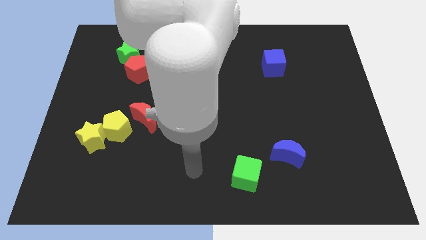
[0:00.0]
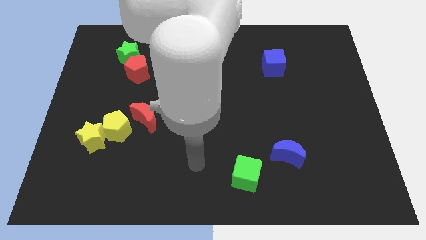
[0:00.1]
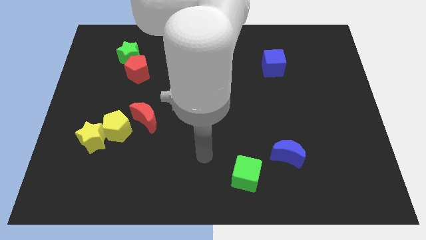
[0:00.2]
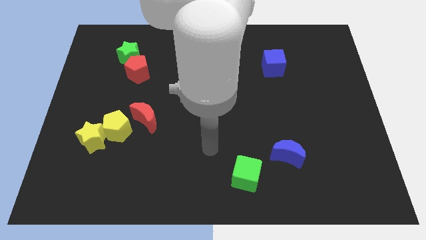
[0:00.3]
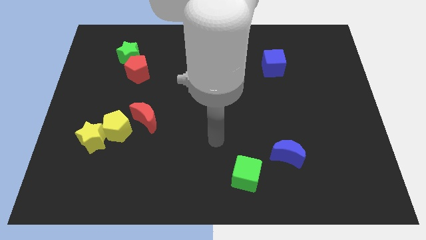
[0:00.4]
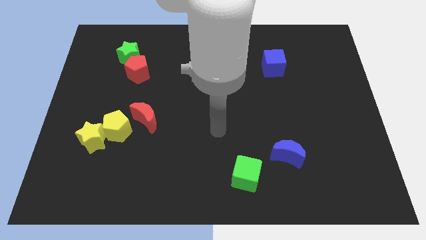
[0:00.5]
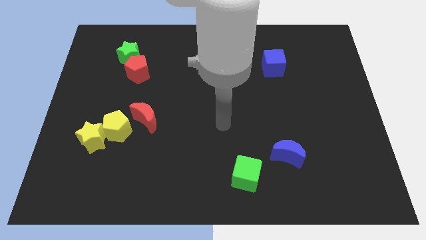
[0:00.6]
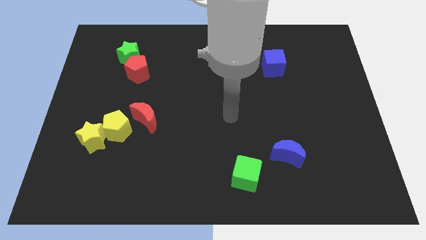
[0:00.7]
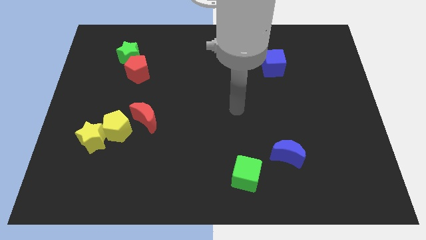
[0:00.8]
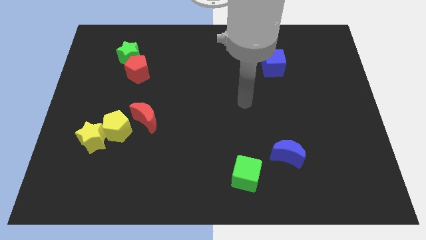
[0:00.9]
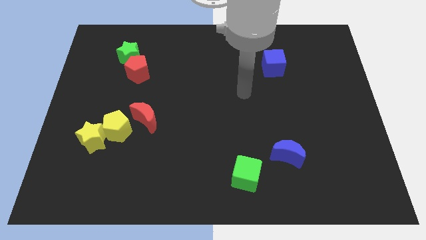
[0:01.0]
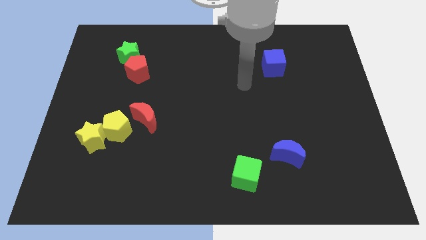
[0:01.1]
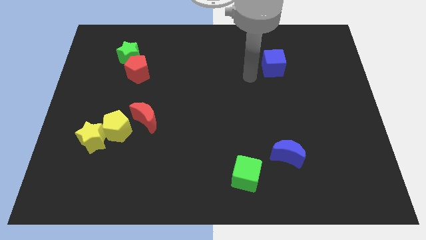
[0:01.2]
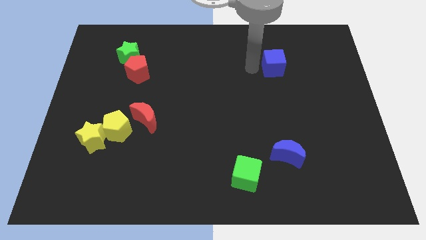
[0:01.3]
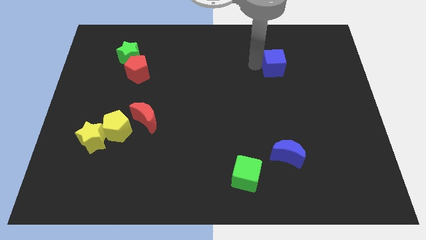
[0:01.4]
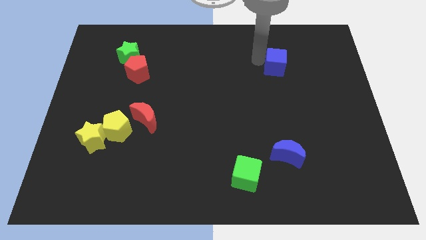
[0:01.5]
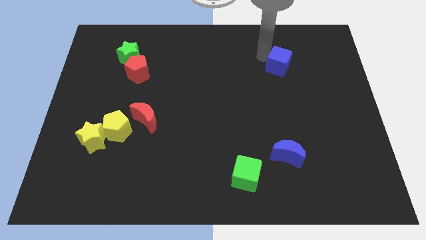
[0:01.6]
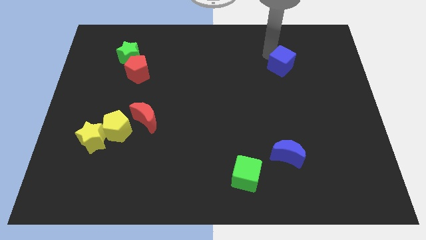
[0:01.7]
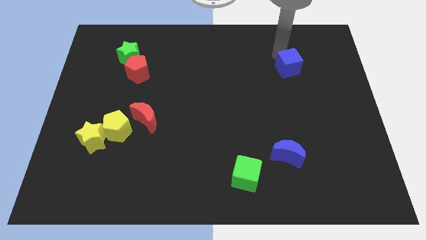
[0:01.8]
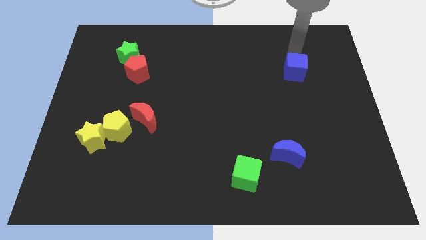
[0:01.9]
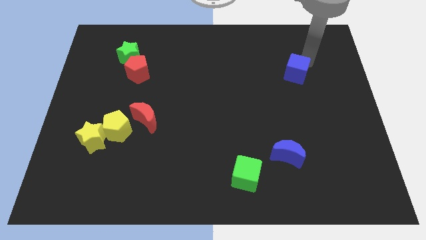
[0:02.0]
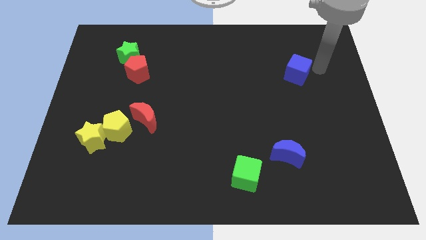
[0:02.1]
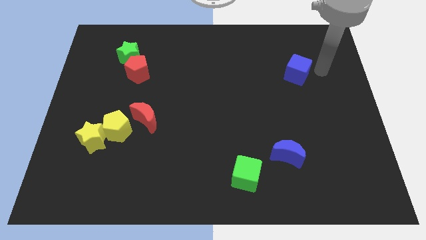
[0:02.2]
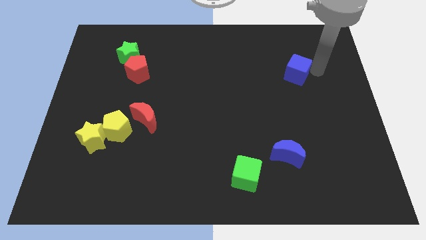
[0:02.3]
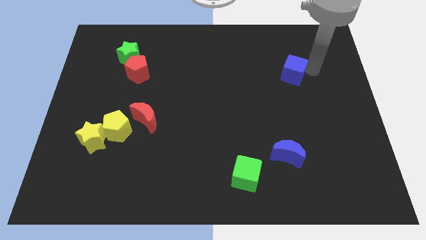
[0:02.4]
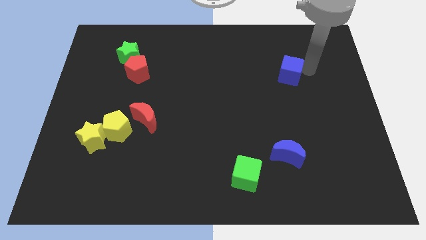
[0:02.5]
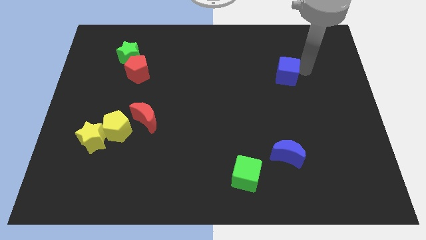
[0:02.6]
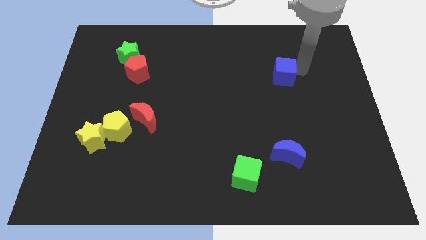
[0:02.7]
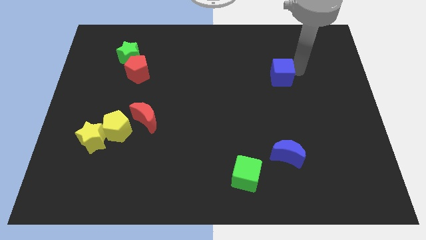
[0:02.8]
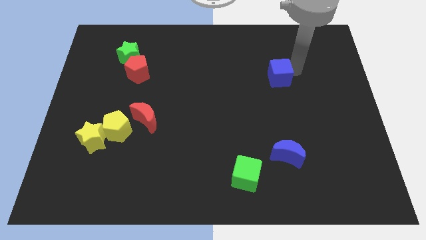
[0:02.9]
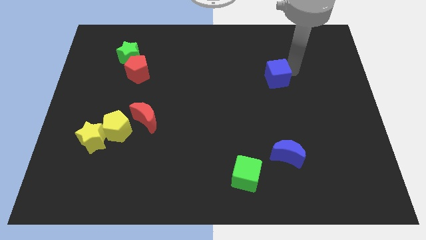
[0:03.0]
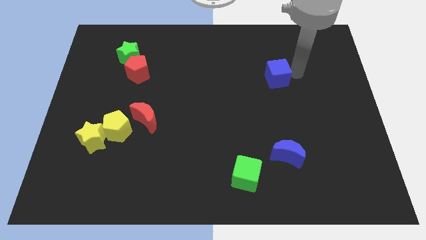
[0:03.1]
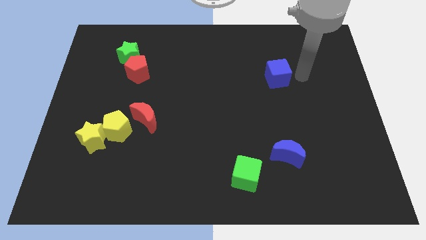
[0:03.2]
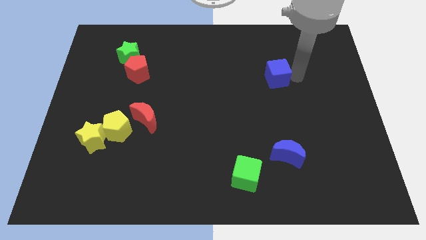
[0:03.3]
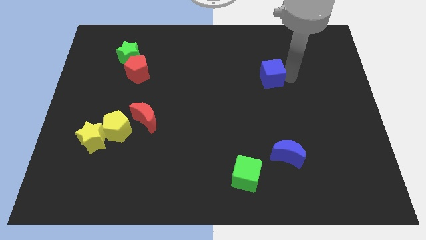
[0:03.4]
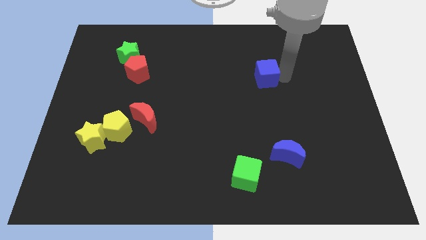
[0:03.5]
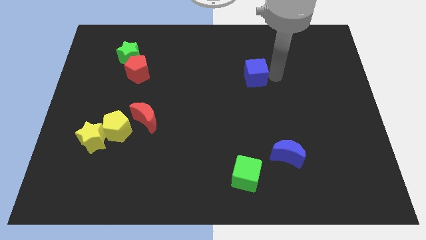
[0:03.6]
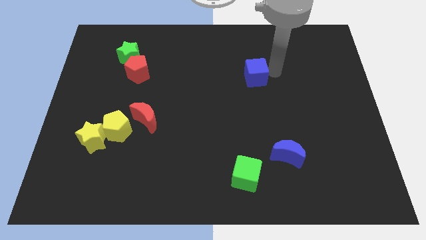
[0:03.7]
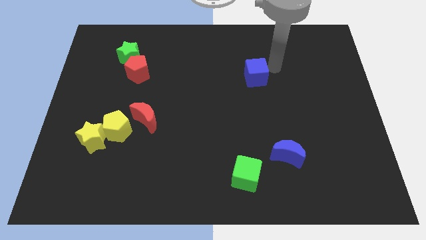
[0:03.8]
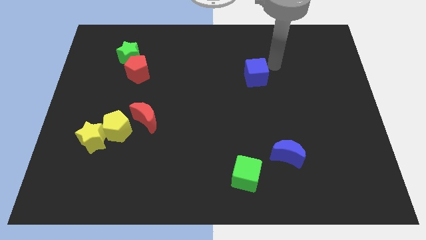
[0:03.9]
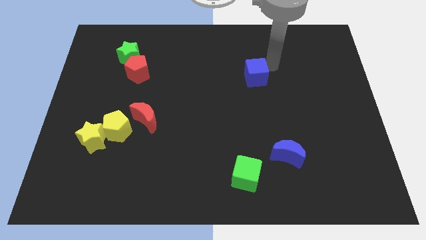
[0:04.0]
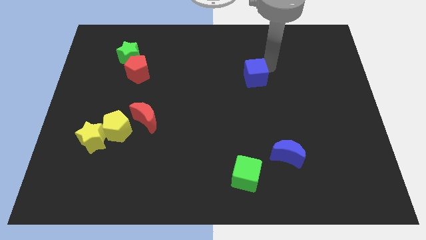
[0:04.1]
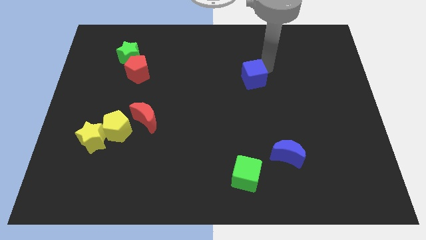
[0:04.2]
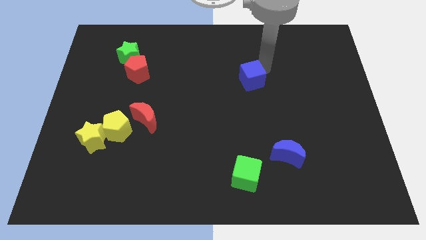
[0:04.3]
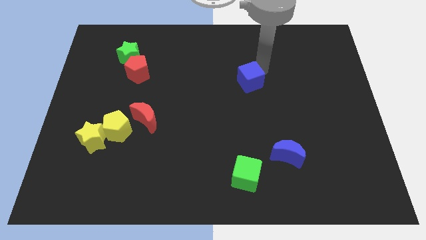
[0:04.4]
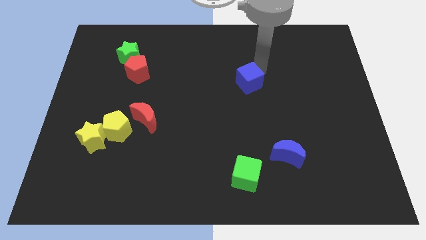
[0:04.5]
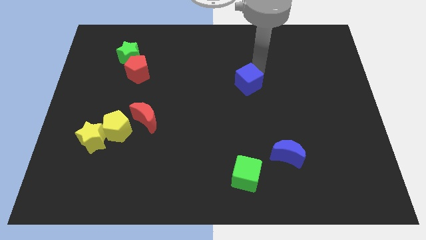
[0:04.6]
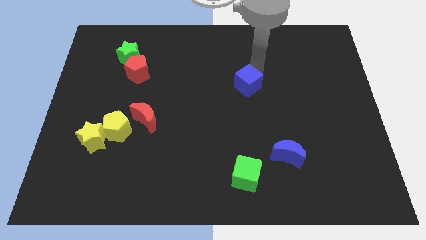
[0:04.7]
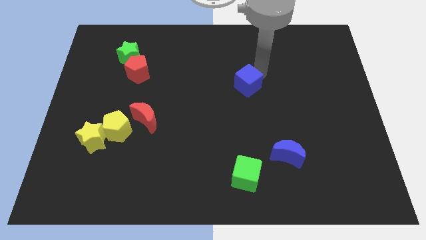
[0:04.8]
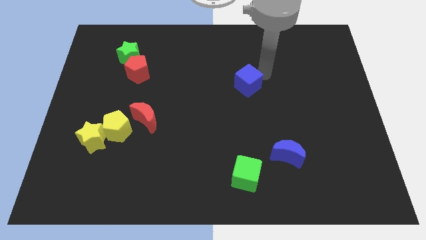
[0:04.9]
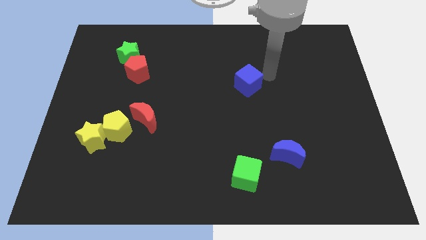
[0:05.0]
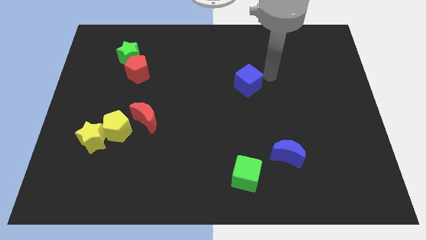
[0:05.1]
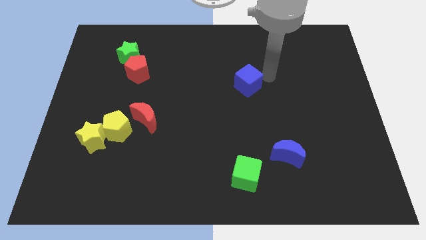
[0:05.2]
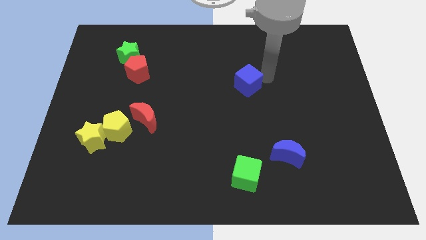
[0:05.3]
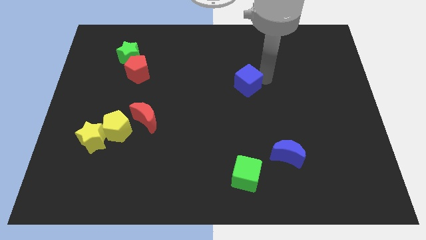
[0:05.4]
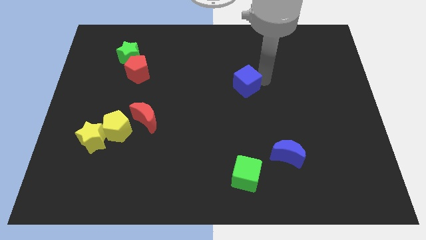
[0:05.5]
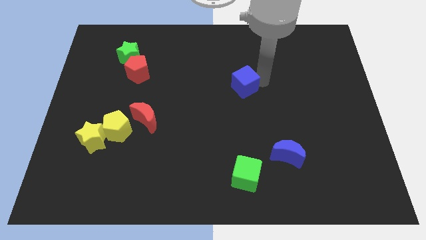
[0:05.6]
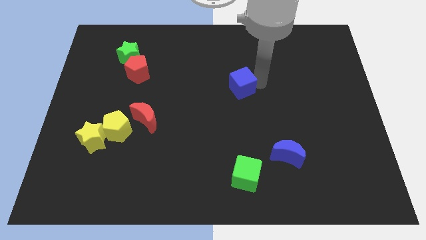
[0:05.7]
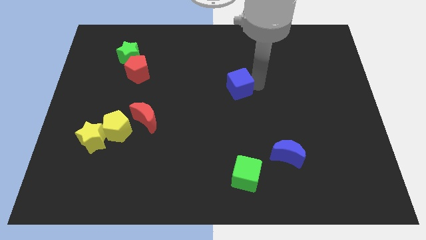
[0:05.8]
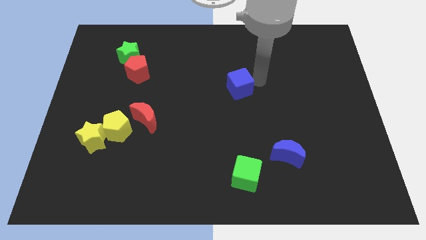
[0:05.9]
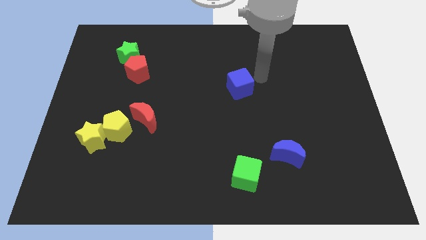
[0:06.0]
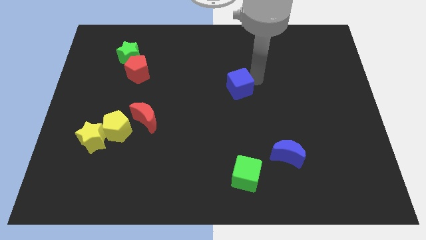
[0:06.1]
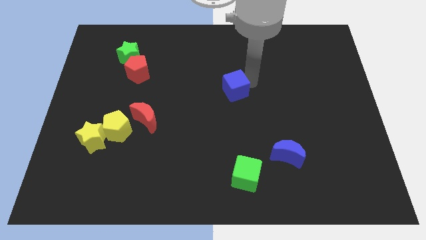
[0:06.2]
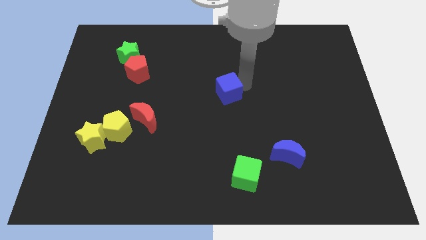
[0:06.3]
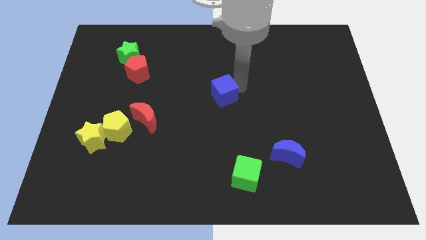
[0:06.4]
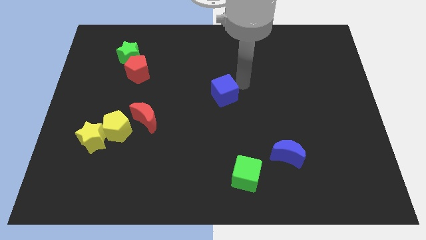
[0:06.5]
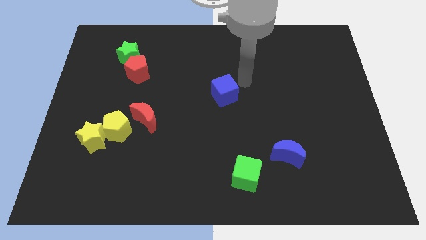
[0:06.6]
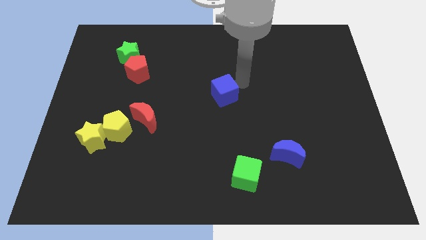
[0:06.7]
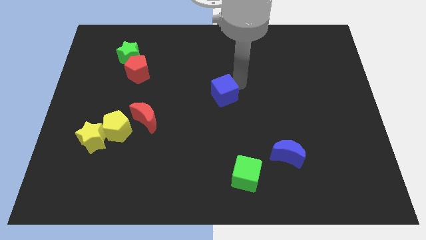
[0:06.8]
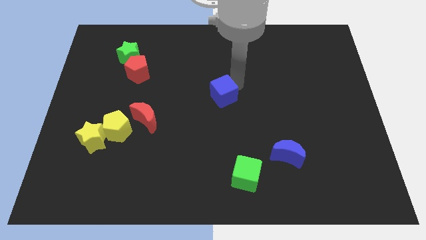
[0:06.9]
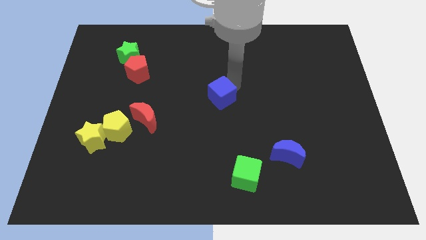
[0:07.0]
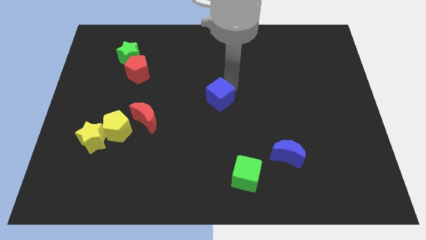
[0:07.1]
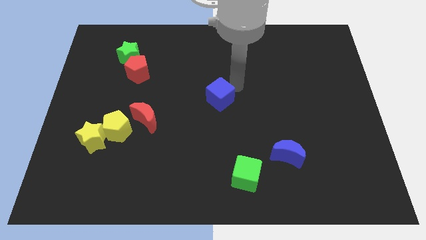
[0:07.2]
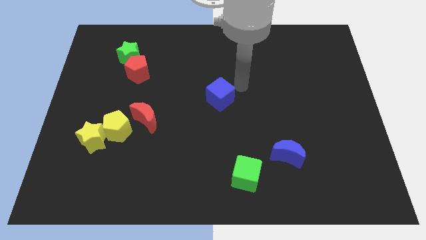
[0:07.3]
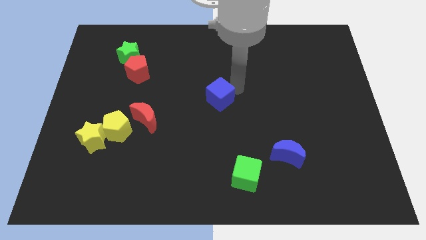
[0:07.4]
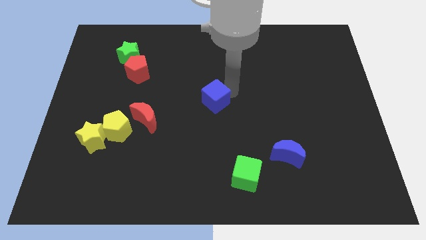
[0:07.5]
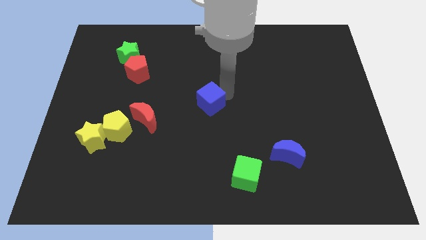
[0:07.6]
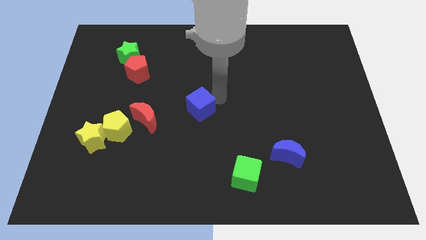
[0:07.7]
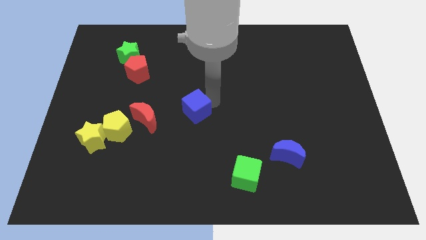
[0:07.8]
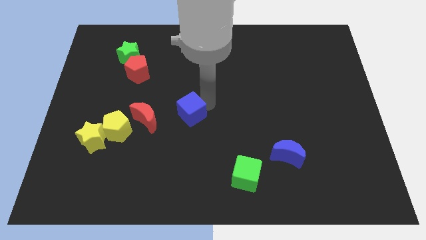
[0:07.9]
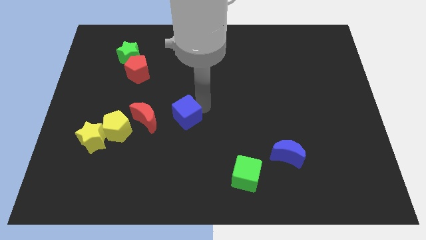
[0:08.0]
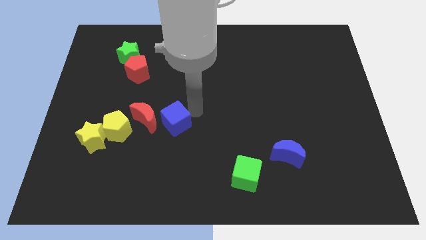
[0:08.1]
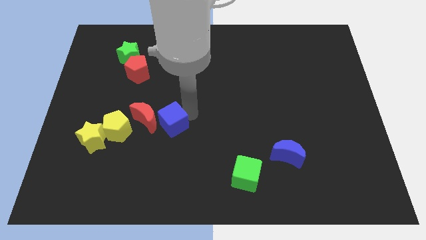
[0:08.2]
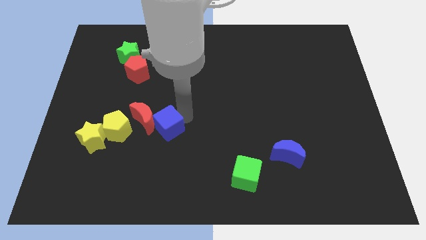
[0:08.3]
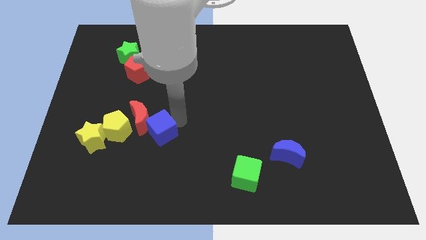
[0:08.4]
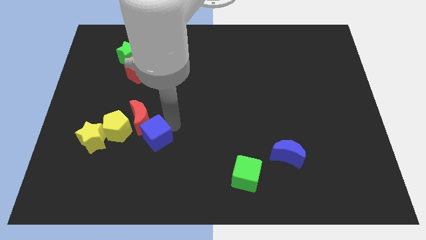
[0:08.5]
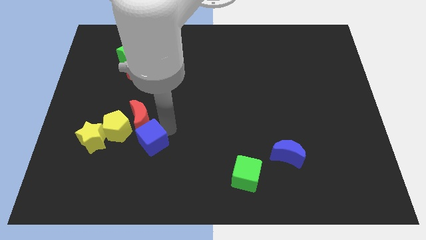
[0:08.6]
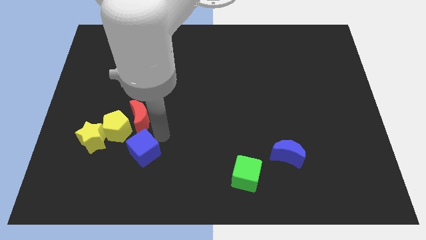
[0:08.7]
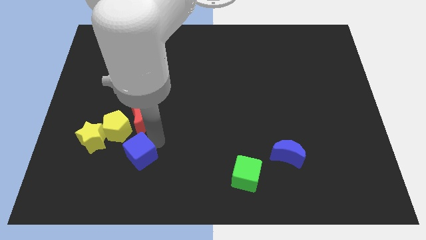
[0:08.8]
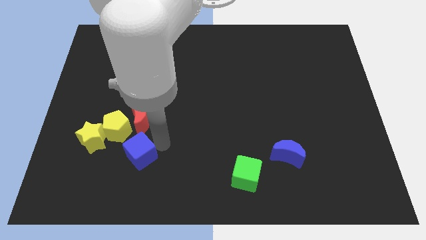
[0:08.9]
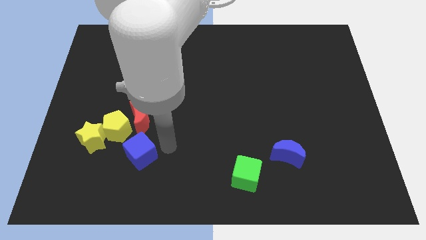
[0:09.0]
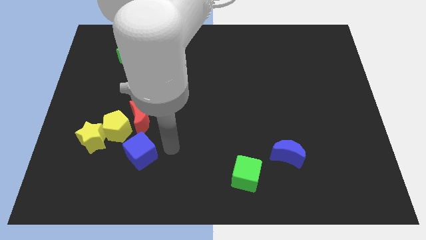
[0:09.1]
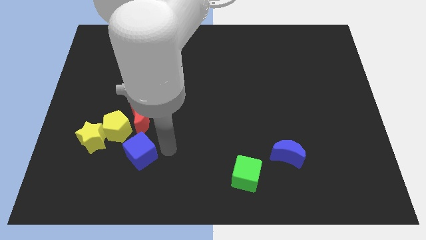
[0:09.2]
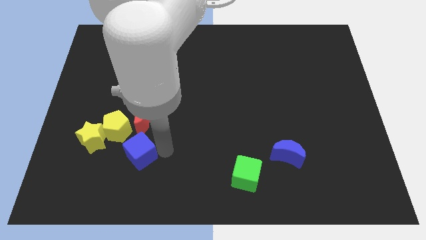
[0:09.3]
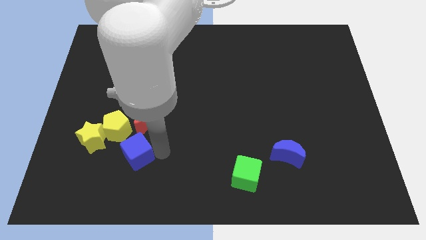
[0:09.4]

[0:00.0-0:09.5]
put the blue cube to the bottom right of the yellow star
